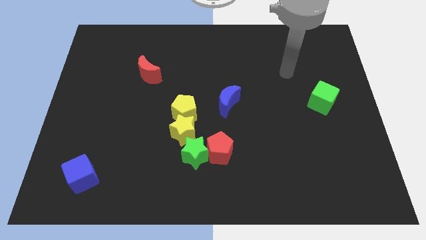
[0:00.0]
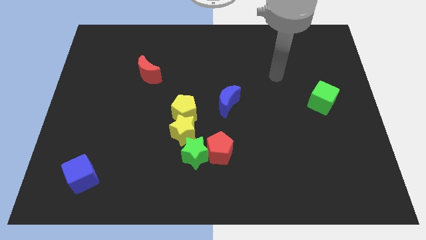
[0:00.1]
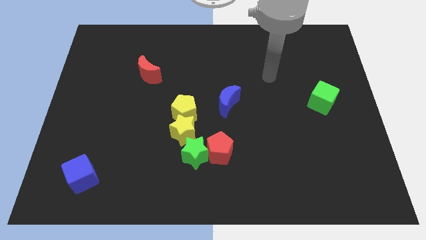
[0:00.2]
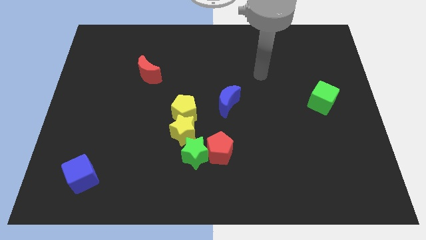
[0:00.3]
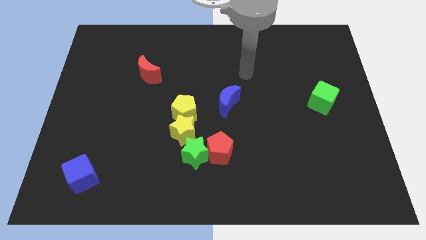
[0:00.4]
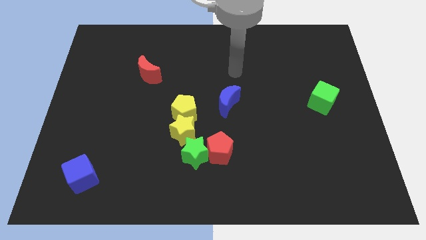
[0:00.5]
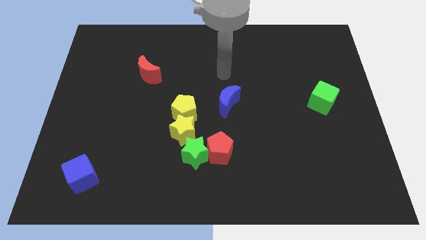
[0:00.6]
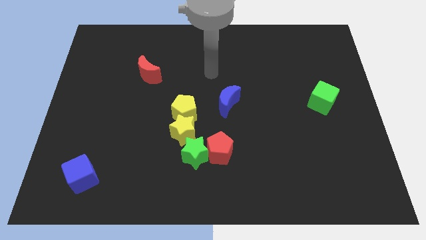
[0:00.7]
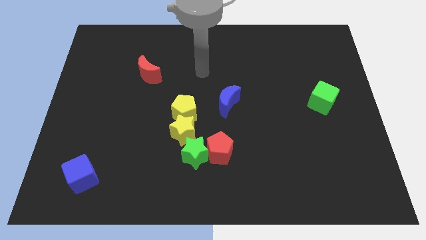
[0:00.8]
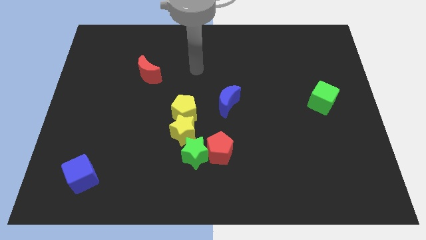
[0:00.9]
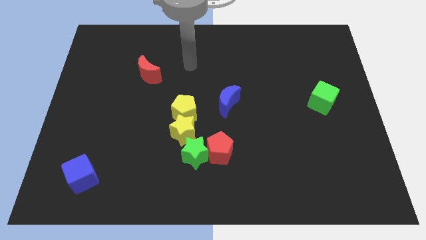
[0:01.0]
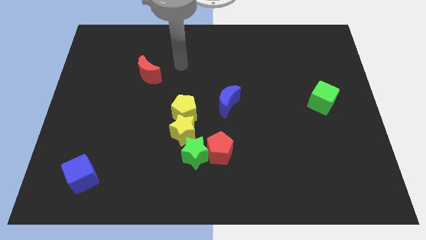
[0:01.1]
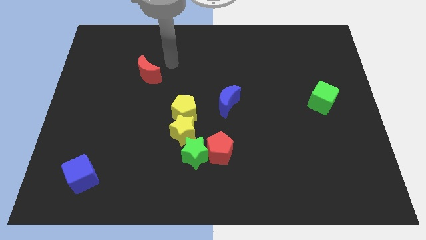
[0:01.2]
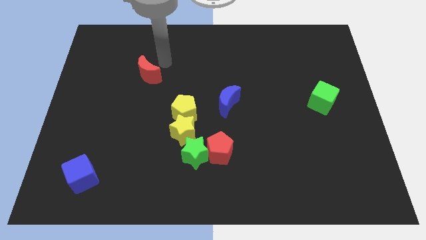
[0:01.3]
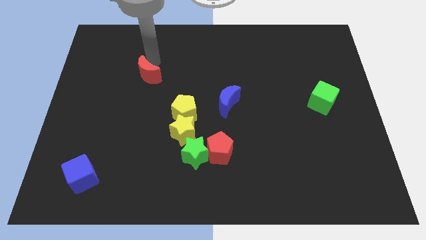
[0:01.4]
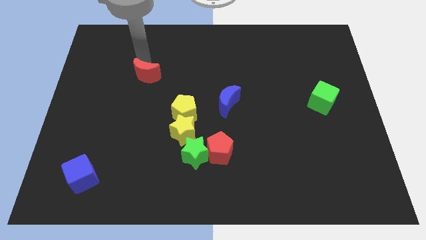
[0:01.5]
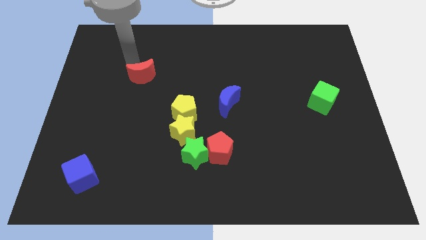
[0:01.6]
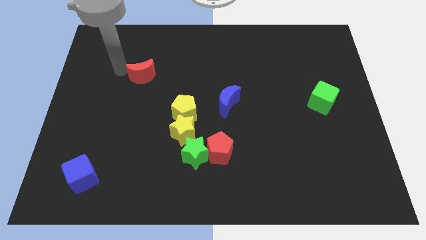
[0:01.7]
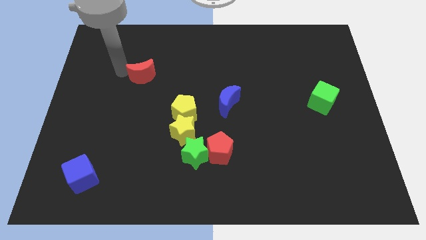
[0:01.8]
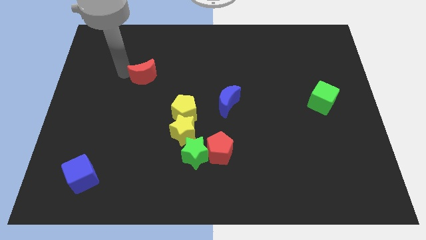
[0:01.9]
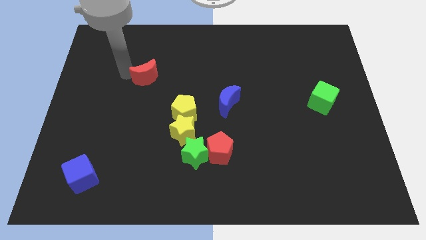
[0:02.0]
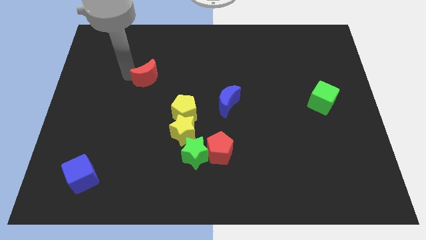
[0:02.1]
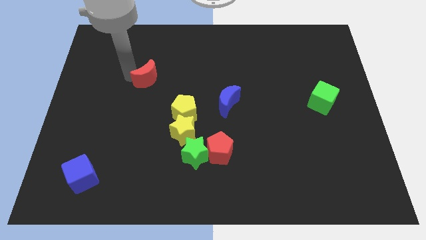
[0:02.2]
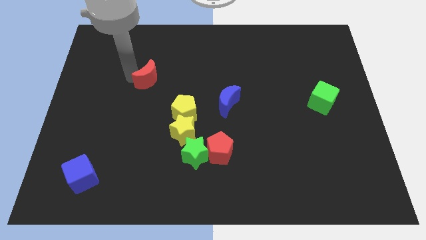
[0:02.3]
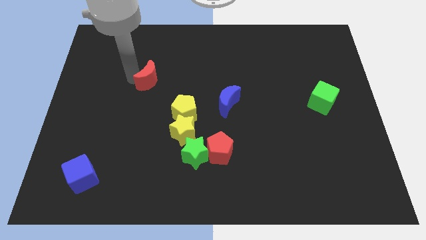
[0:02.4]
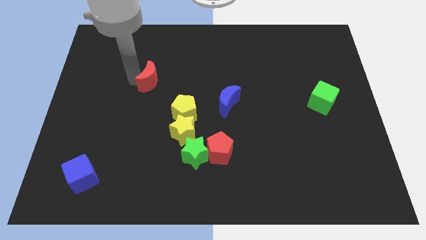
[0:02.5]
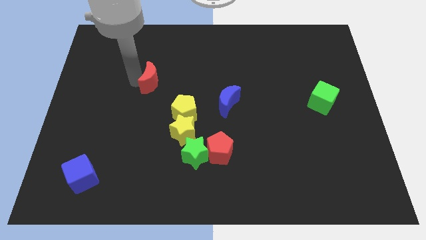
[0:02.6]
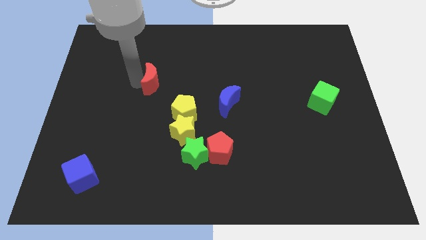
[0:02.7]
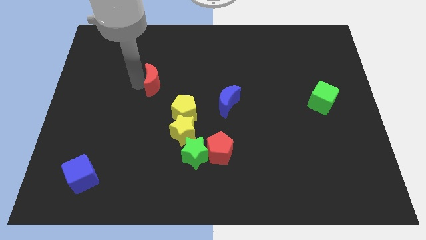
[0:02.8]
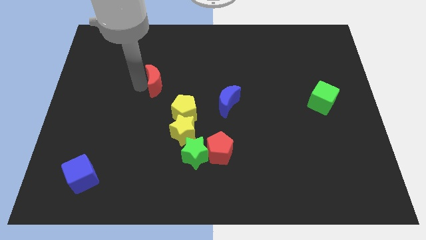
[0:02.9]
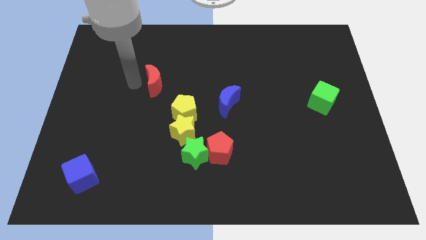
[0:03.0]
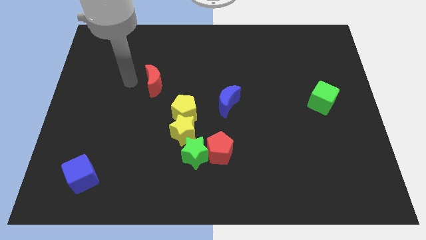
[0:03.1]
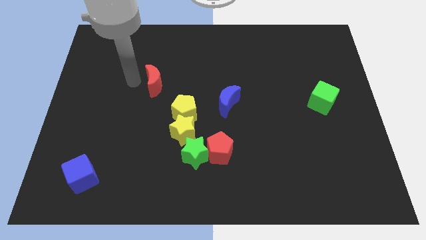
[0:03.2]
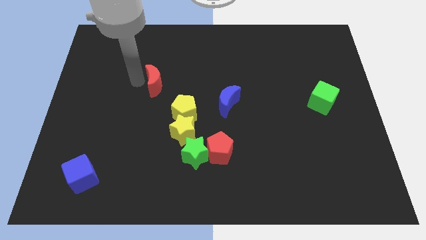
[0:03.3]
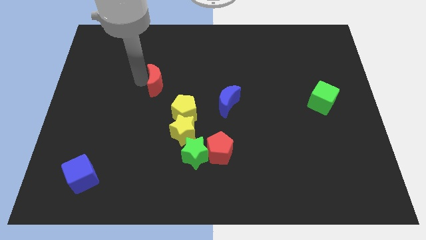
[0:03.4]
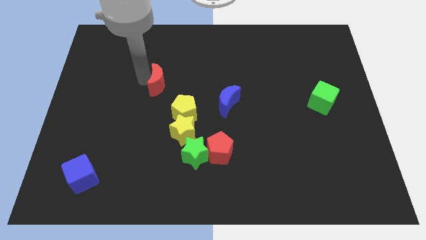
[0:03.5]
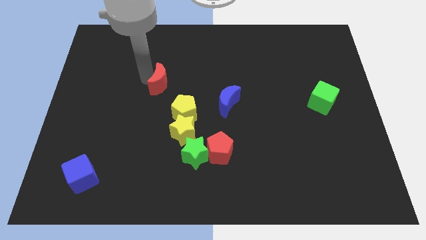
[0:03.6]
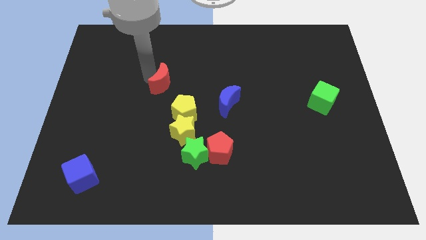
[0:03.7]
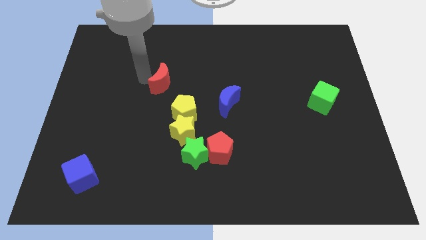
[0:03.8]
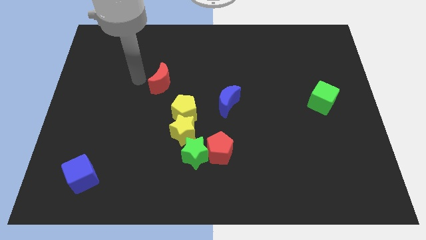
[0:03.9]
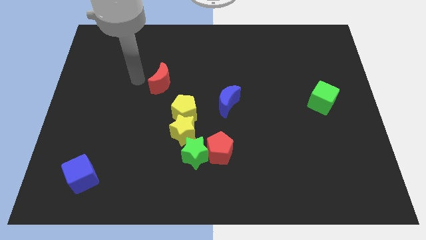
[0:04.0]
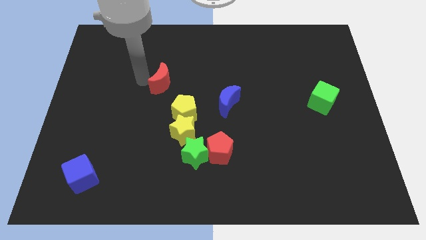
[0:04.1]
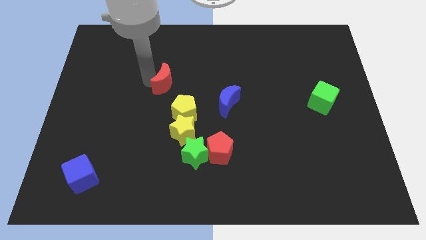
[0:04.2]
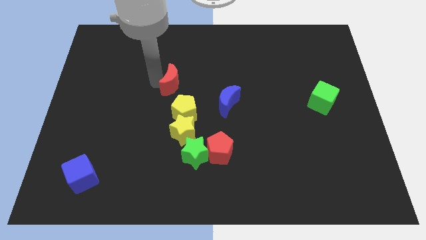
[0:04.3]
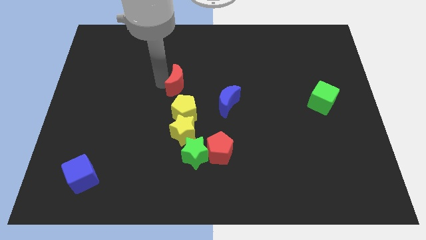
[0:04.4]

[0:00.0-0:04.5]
slide the red moon a bit diagonally down and right

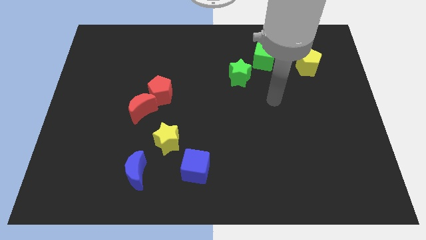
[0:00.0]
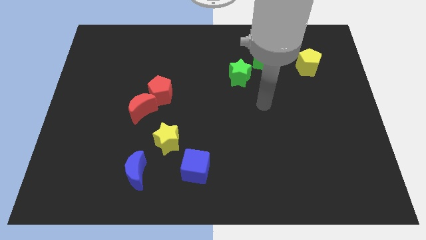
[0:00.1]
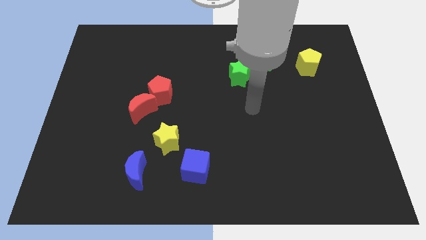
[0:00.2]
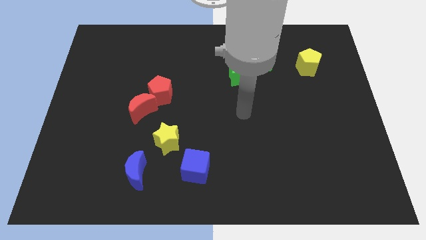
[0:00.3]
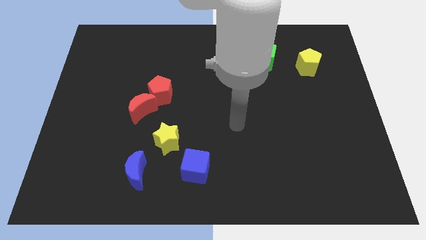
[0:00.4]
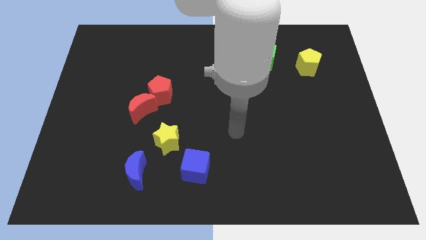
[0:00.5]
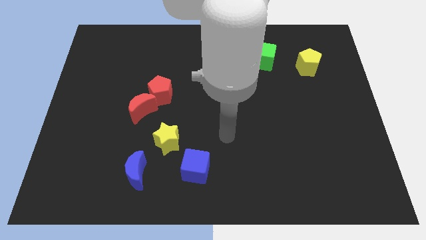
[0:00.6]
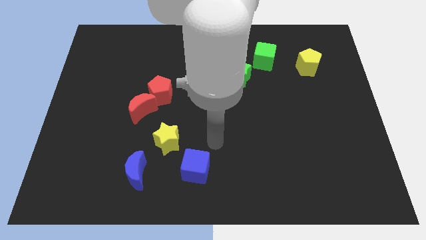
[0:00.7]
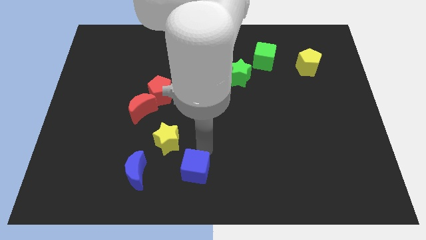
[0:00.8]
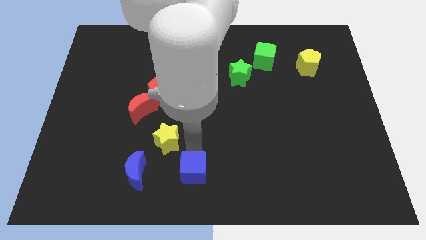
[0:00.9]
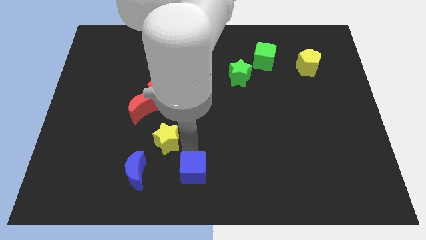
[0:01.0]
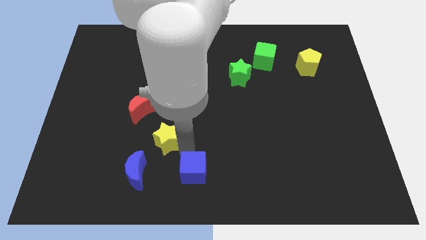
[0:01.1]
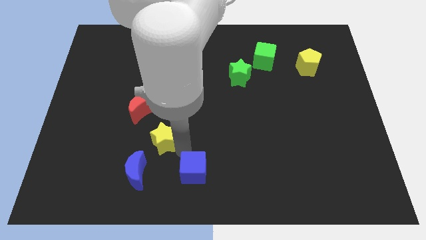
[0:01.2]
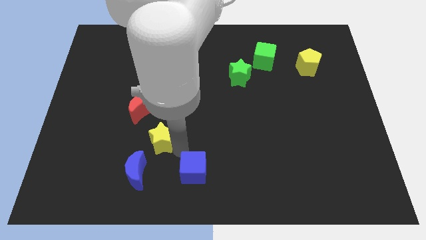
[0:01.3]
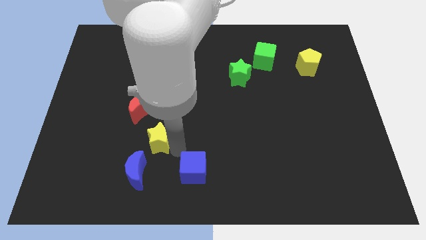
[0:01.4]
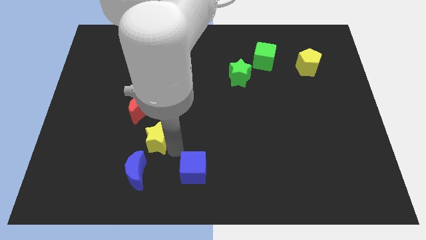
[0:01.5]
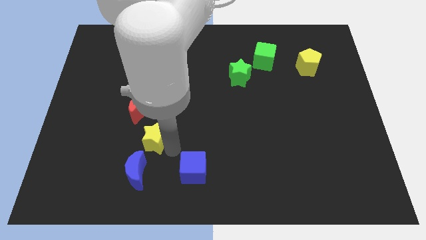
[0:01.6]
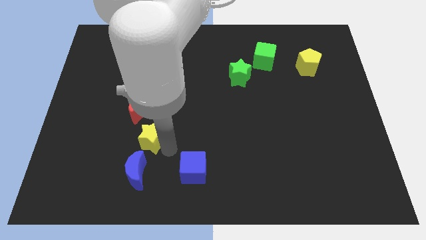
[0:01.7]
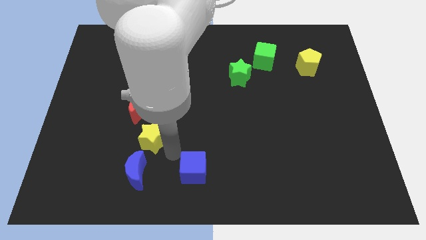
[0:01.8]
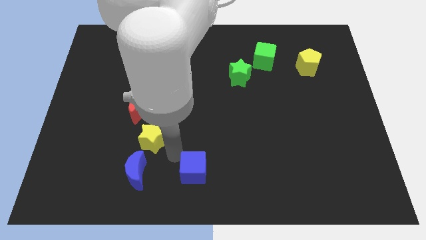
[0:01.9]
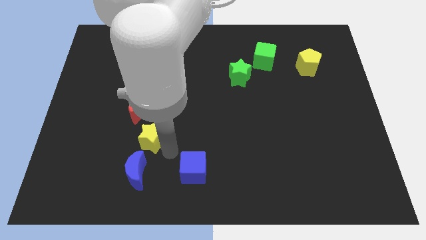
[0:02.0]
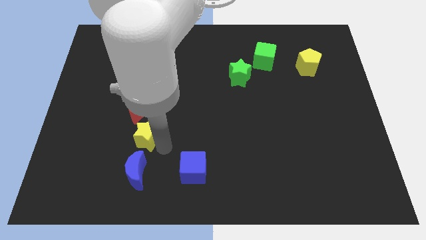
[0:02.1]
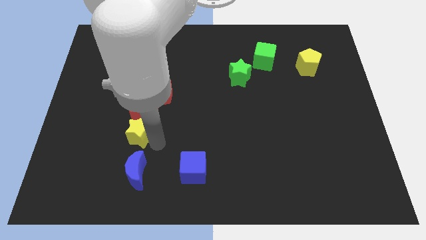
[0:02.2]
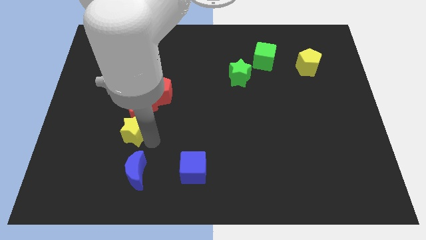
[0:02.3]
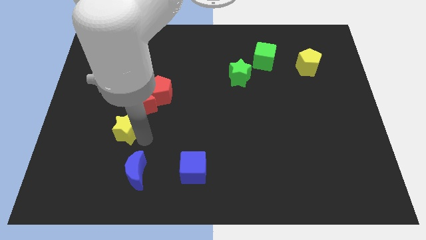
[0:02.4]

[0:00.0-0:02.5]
slightly push the yellow star diagonally up and to the left

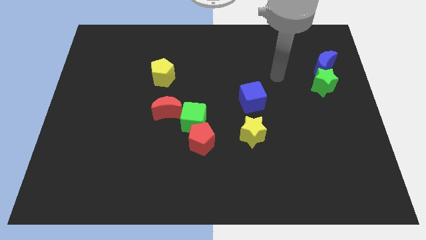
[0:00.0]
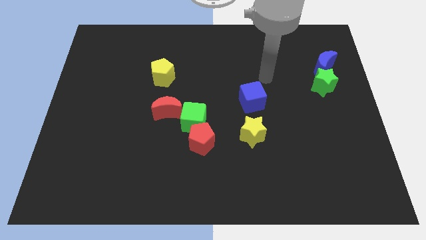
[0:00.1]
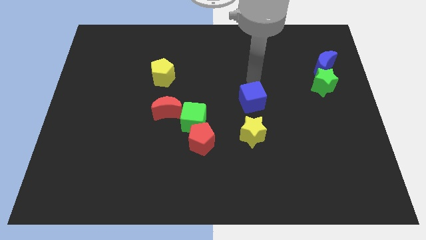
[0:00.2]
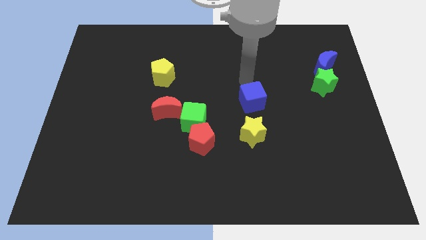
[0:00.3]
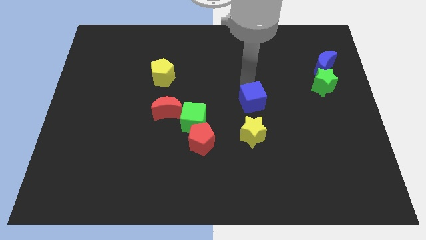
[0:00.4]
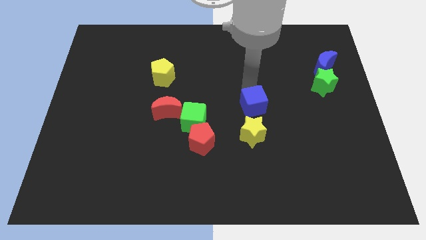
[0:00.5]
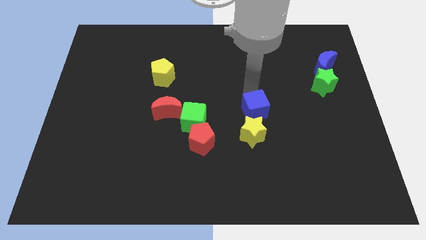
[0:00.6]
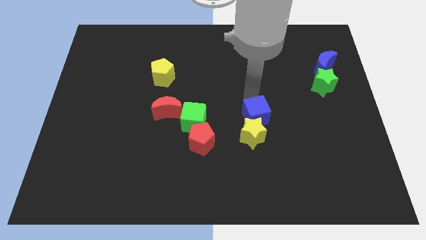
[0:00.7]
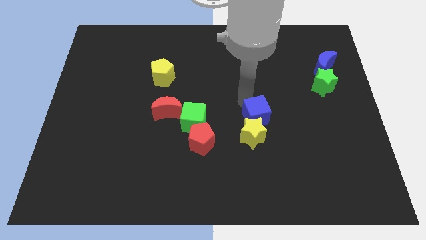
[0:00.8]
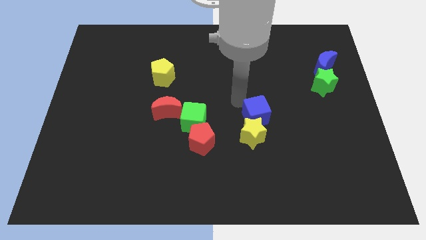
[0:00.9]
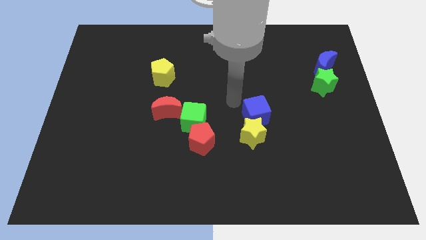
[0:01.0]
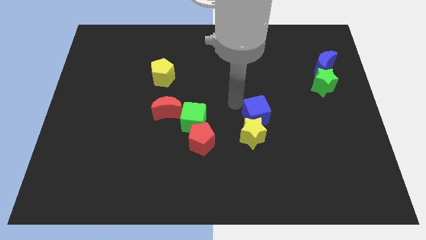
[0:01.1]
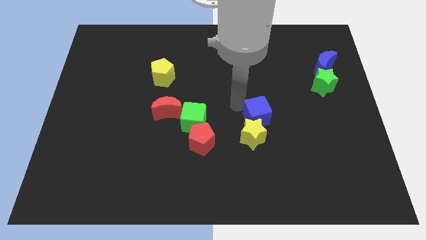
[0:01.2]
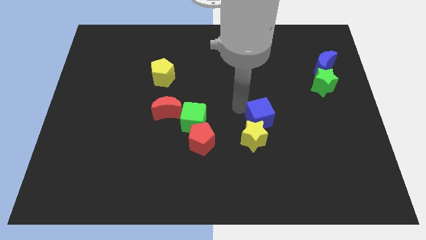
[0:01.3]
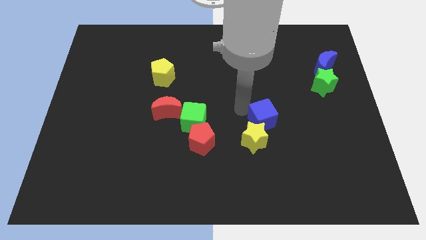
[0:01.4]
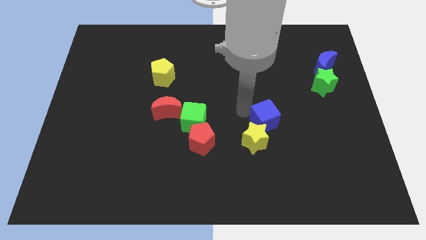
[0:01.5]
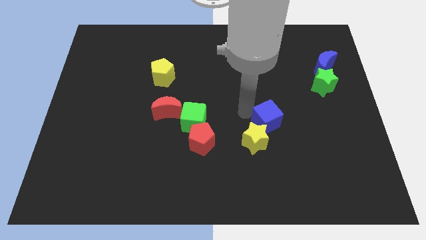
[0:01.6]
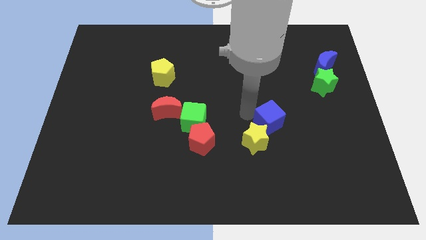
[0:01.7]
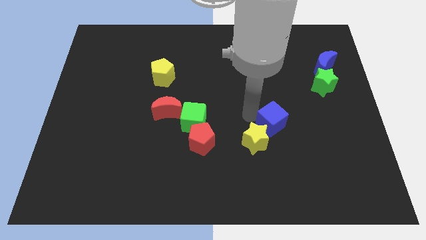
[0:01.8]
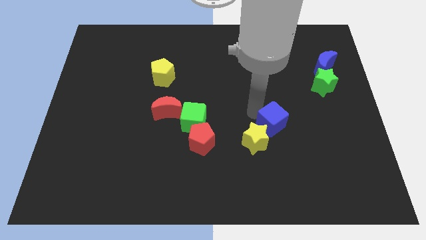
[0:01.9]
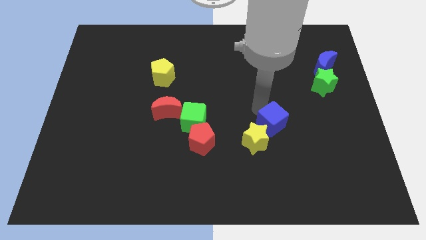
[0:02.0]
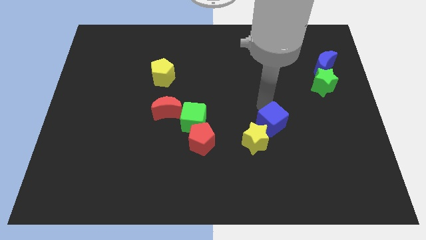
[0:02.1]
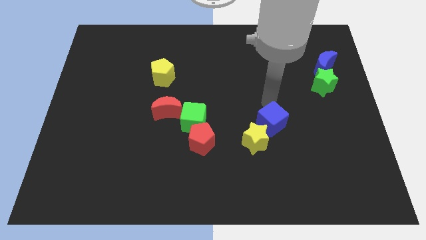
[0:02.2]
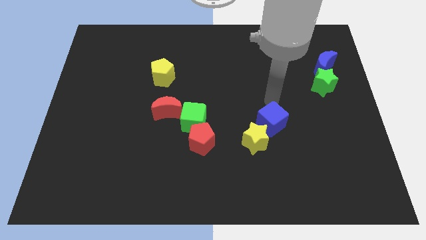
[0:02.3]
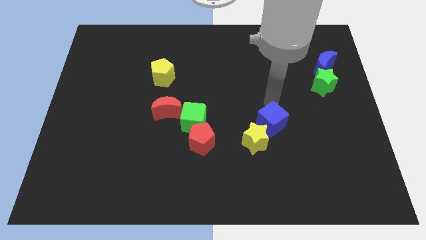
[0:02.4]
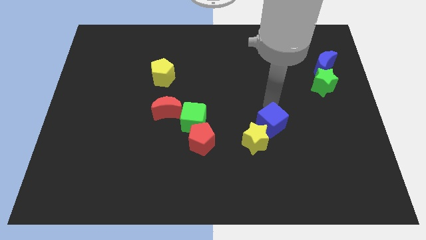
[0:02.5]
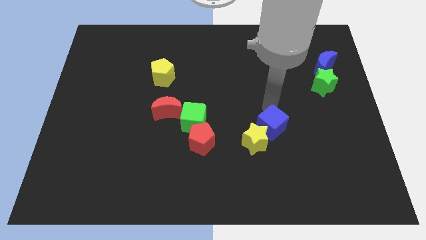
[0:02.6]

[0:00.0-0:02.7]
slide the blue cube downwards a little bit
